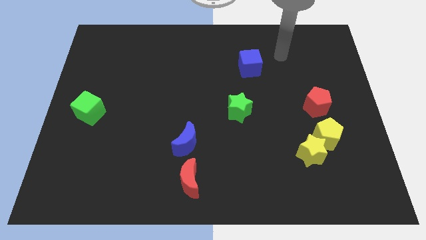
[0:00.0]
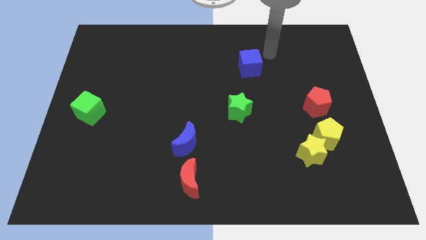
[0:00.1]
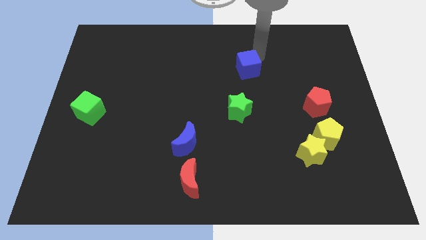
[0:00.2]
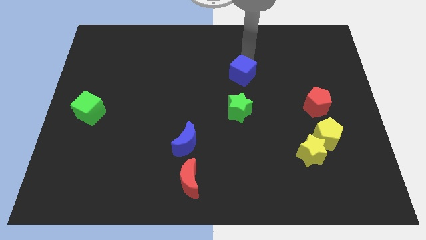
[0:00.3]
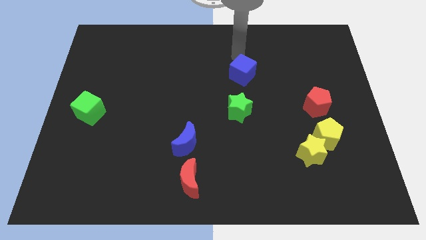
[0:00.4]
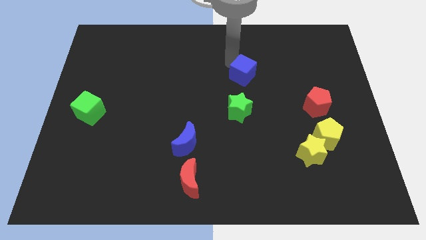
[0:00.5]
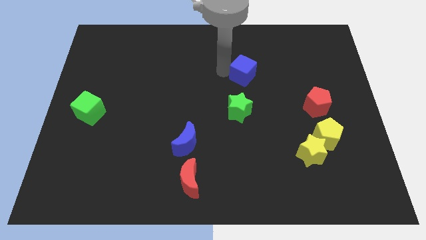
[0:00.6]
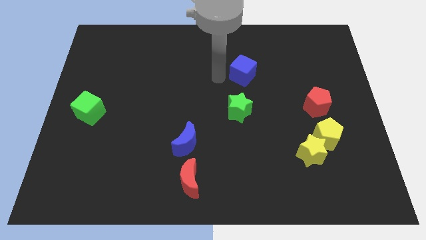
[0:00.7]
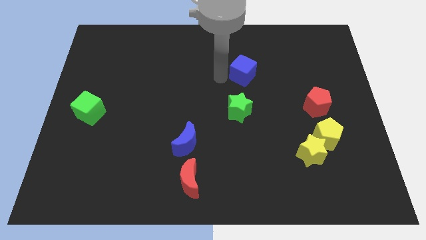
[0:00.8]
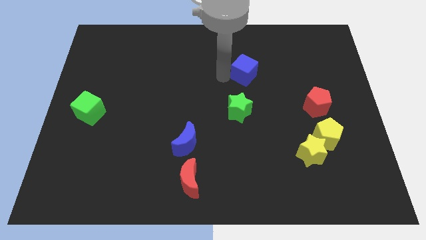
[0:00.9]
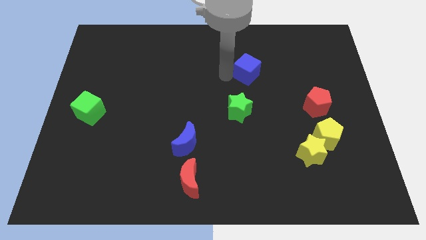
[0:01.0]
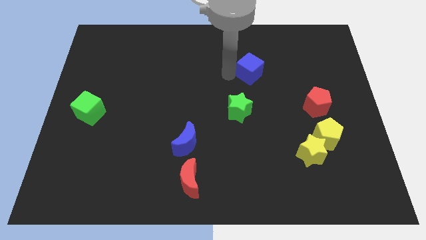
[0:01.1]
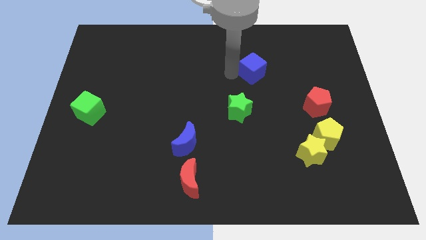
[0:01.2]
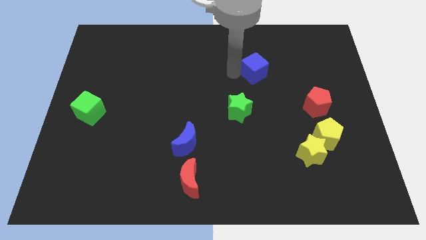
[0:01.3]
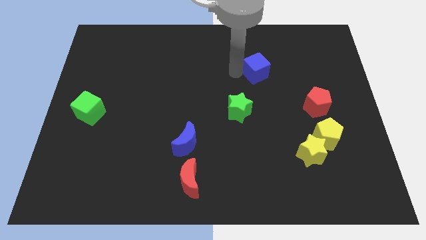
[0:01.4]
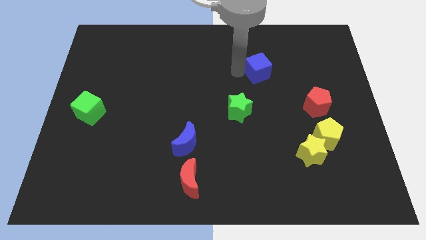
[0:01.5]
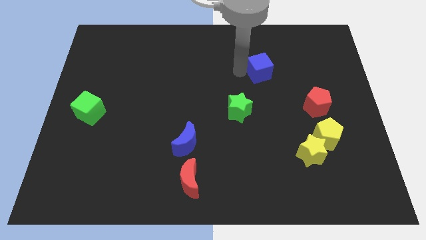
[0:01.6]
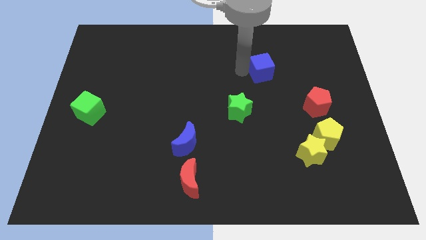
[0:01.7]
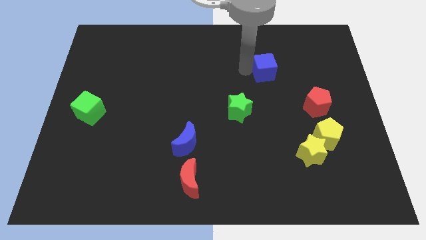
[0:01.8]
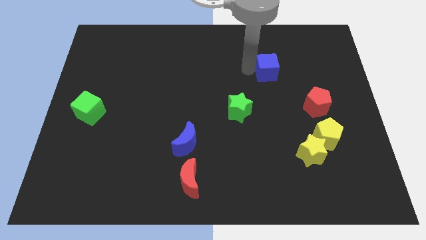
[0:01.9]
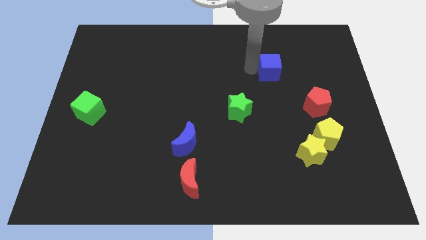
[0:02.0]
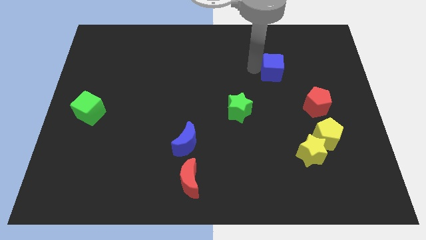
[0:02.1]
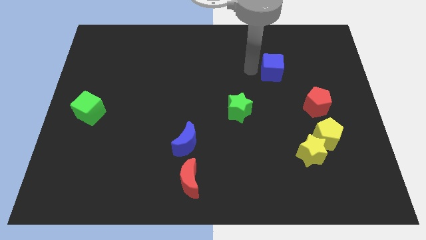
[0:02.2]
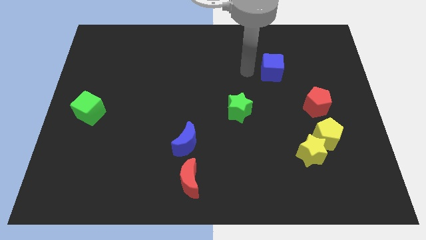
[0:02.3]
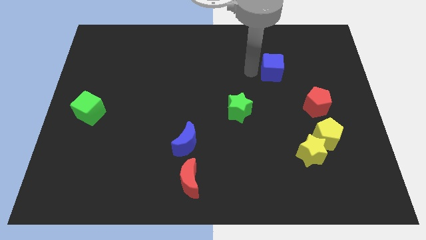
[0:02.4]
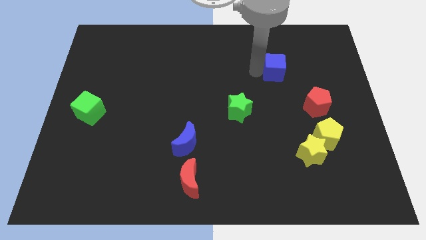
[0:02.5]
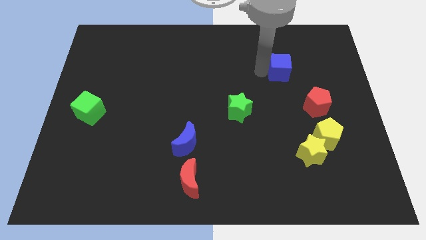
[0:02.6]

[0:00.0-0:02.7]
slightly slide the blue cube right

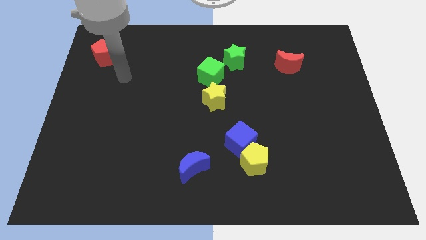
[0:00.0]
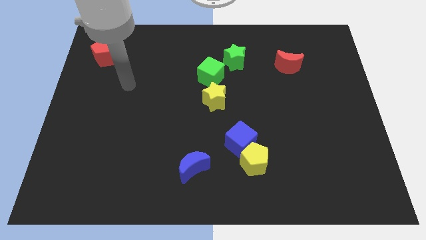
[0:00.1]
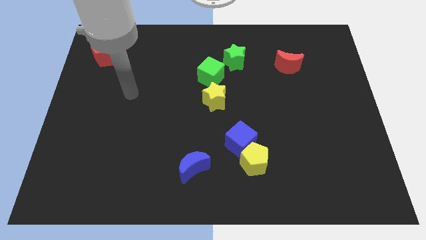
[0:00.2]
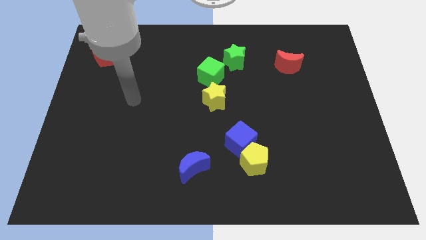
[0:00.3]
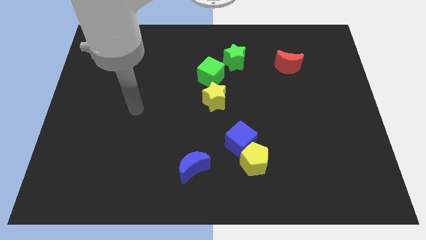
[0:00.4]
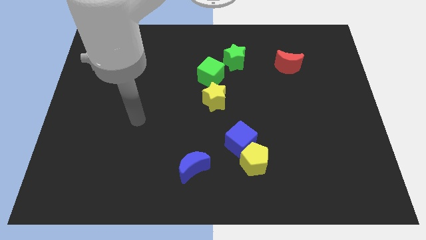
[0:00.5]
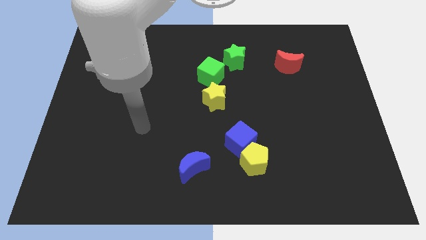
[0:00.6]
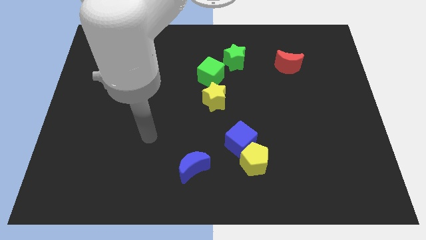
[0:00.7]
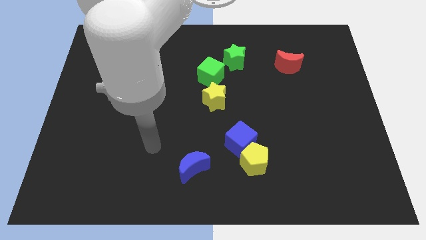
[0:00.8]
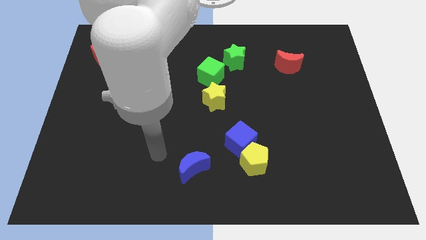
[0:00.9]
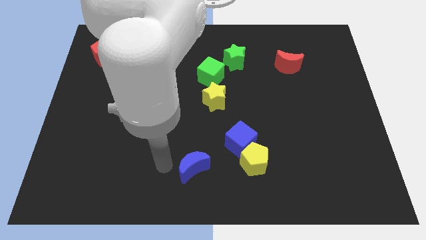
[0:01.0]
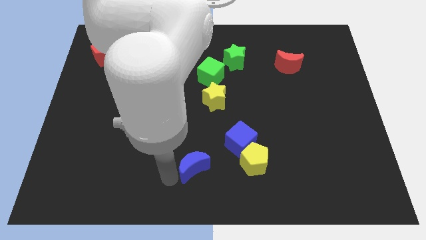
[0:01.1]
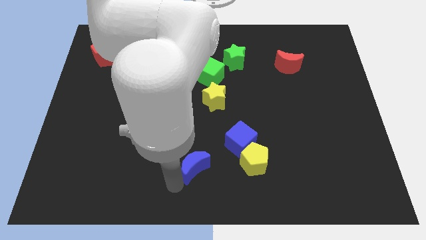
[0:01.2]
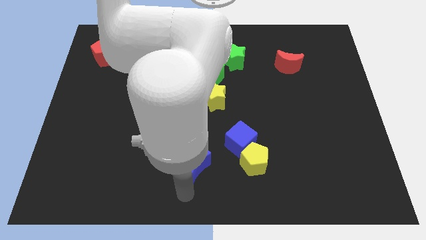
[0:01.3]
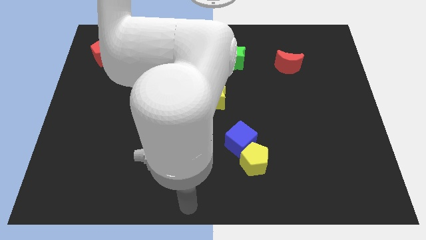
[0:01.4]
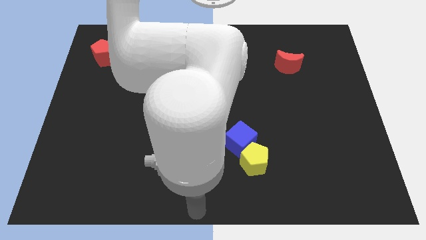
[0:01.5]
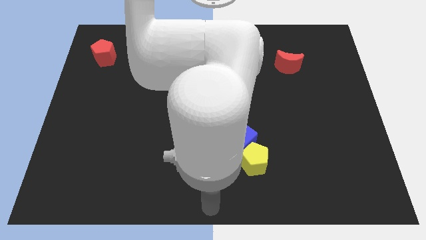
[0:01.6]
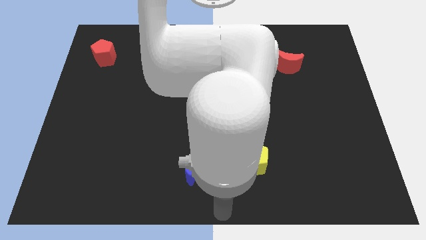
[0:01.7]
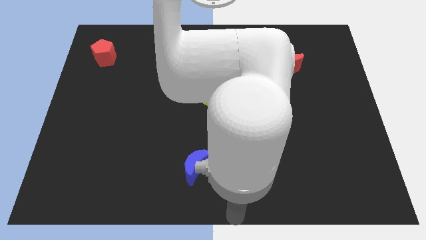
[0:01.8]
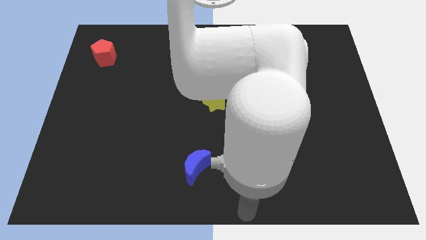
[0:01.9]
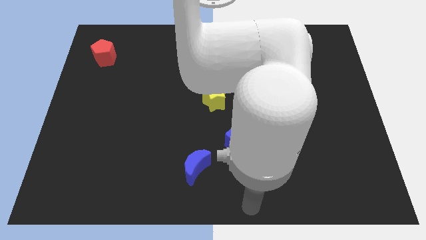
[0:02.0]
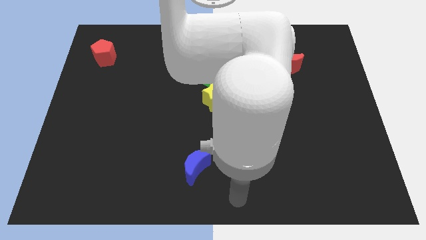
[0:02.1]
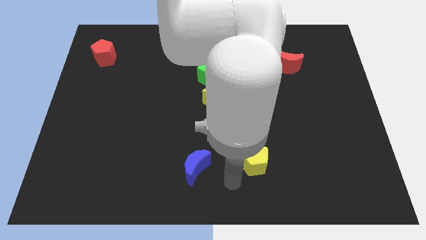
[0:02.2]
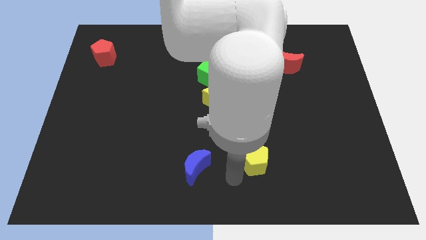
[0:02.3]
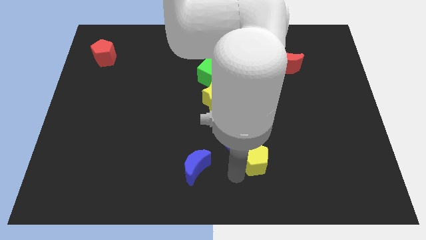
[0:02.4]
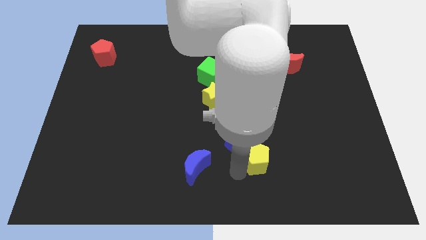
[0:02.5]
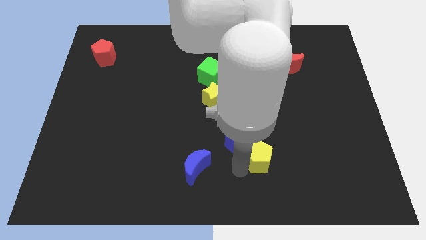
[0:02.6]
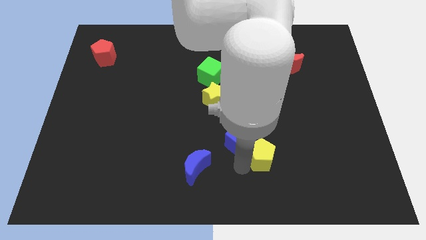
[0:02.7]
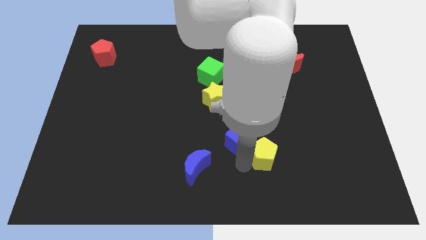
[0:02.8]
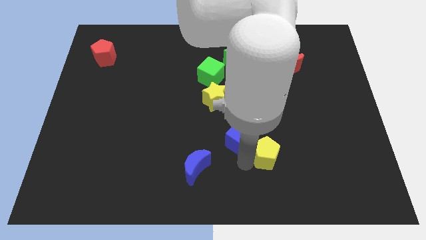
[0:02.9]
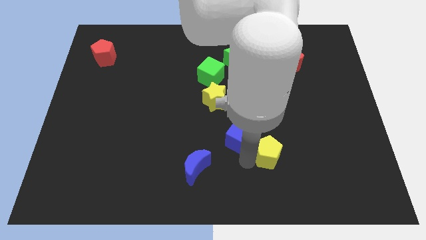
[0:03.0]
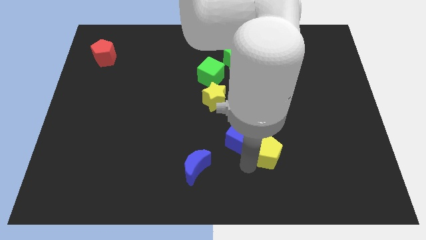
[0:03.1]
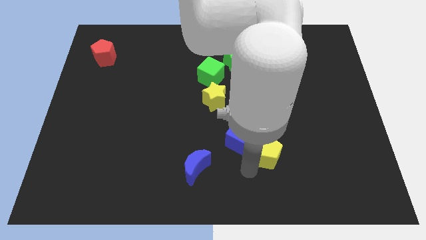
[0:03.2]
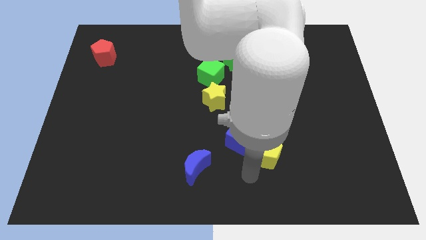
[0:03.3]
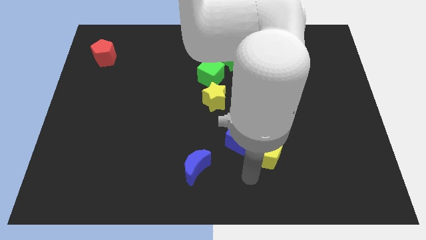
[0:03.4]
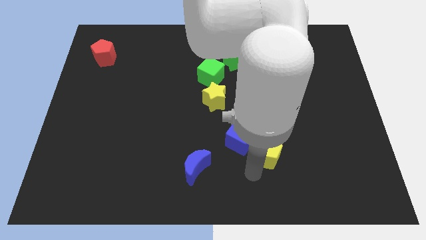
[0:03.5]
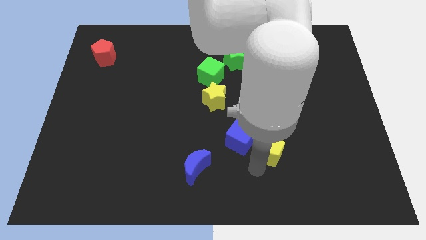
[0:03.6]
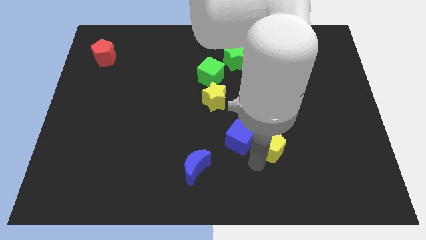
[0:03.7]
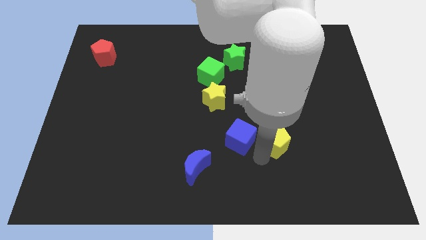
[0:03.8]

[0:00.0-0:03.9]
push the yellow pentagon a bit upwards and to the right

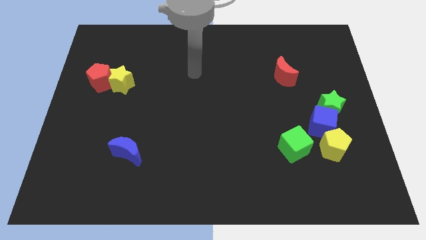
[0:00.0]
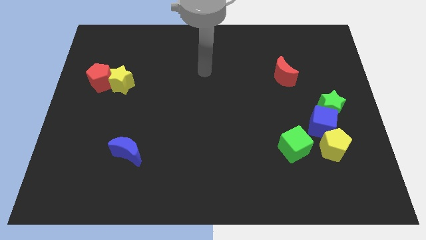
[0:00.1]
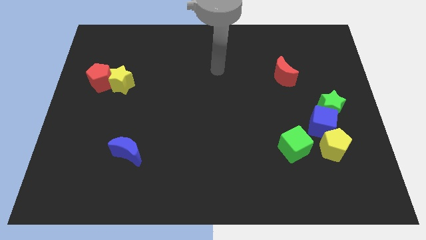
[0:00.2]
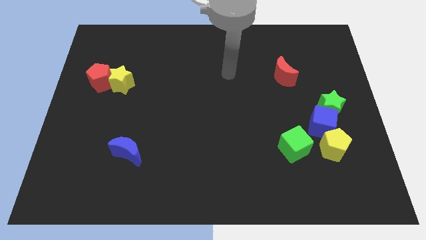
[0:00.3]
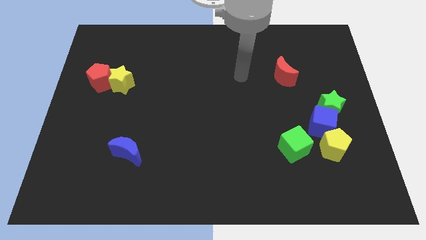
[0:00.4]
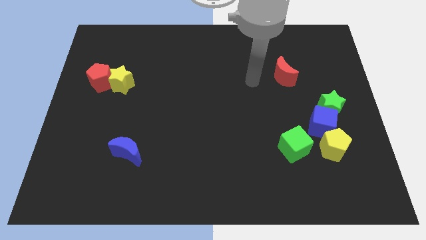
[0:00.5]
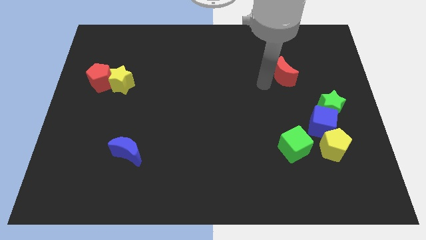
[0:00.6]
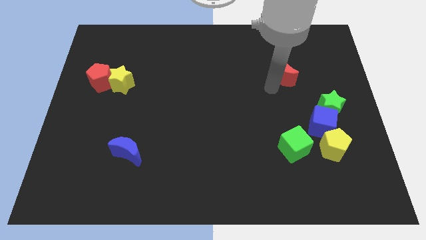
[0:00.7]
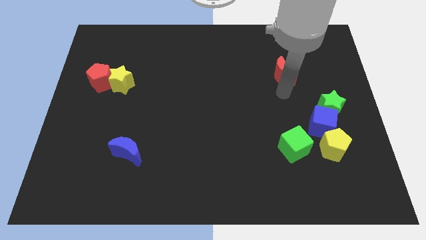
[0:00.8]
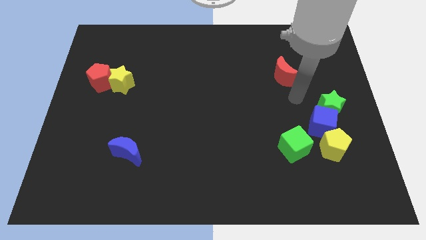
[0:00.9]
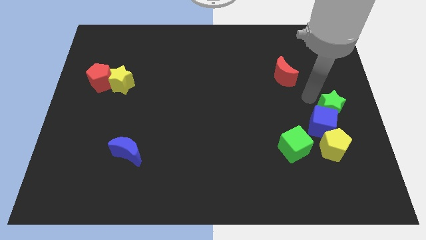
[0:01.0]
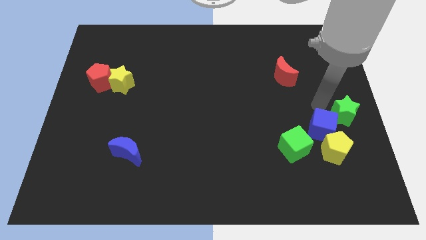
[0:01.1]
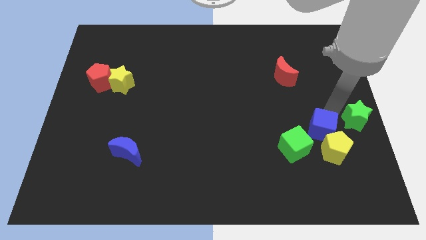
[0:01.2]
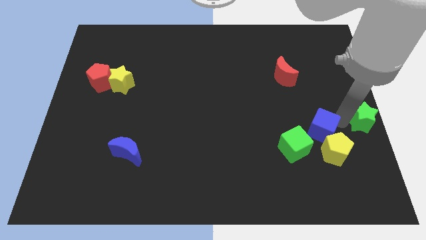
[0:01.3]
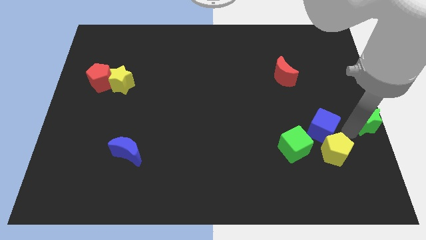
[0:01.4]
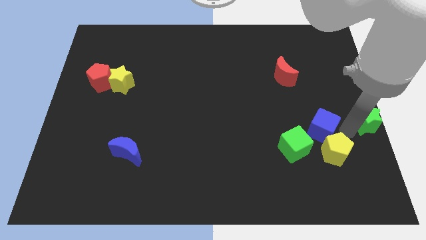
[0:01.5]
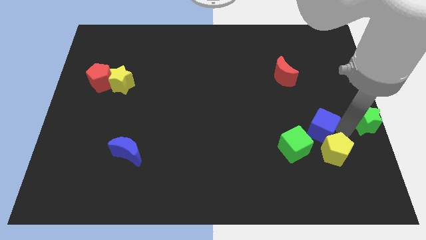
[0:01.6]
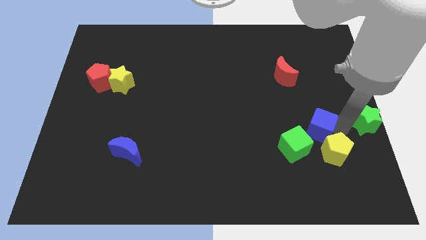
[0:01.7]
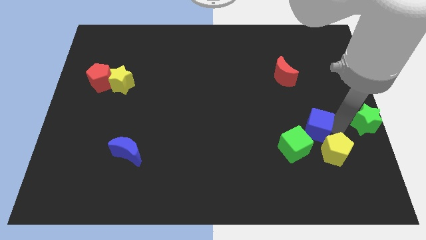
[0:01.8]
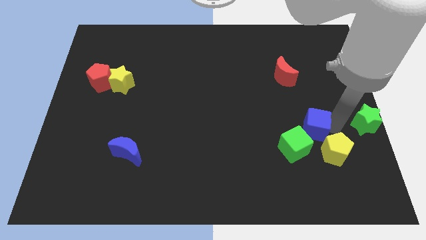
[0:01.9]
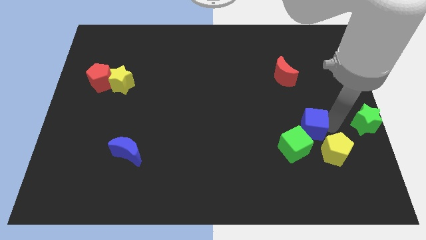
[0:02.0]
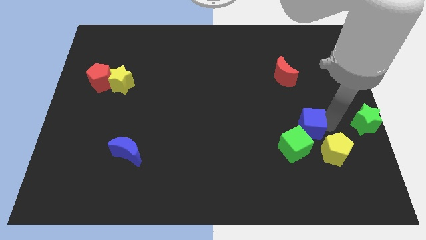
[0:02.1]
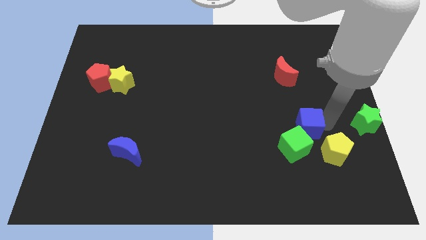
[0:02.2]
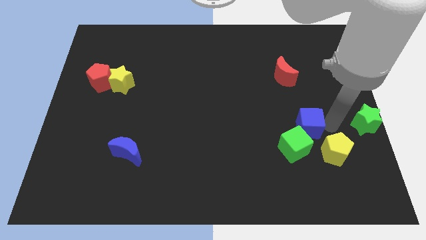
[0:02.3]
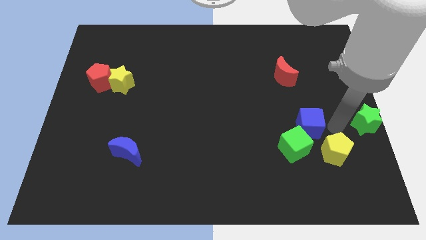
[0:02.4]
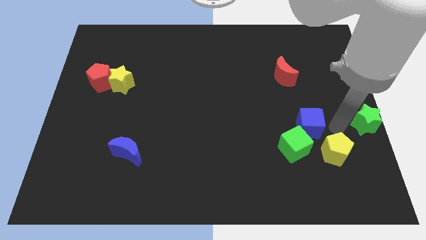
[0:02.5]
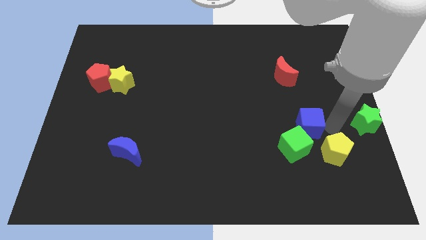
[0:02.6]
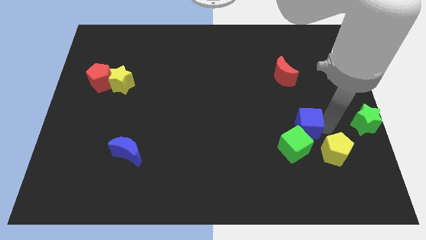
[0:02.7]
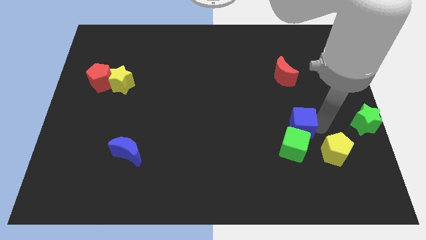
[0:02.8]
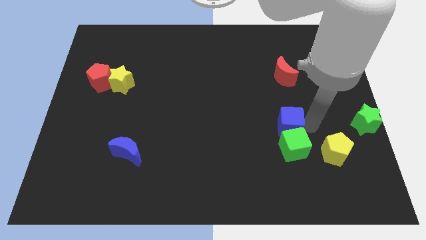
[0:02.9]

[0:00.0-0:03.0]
push the blue cube somewhat to the left
